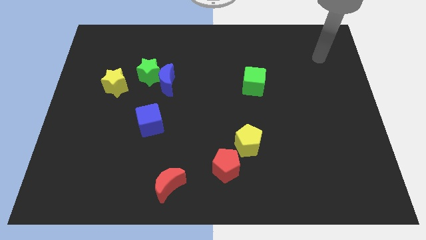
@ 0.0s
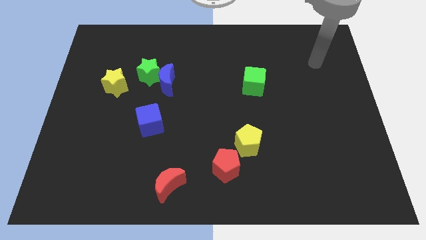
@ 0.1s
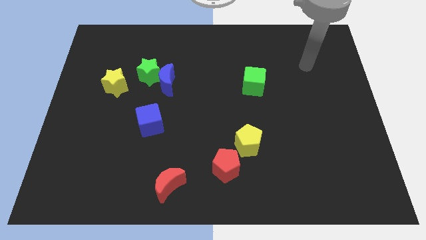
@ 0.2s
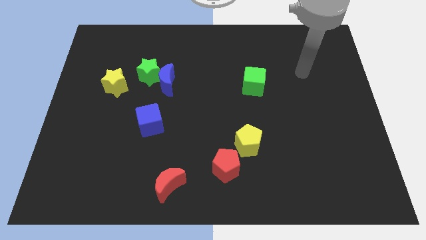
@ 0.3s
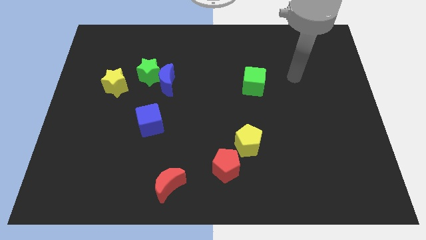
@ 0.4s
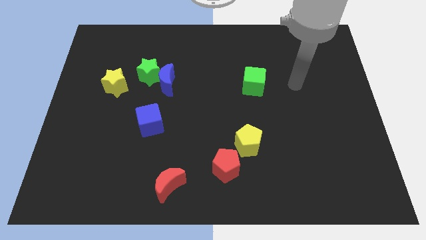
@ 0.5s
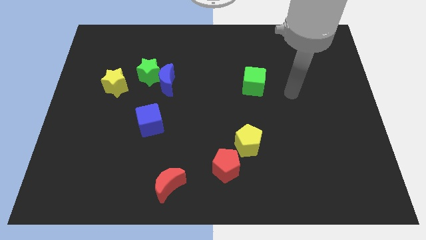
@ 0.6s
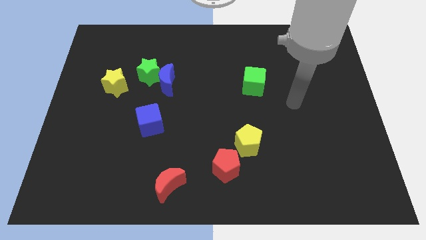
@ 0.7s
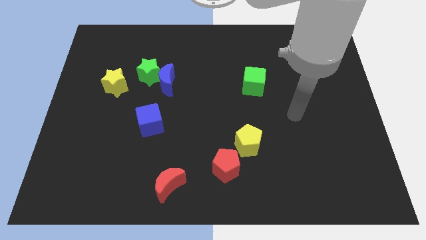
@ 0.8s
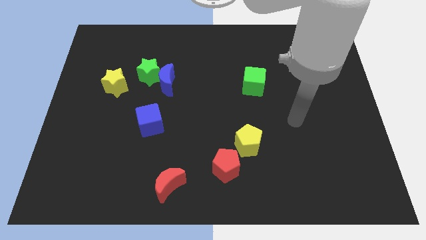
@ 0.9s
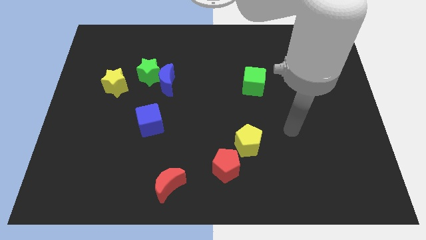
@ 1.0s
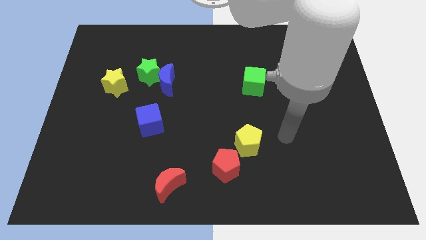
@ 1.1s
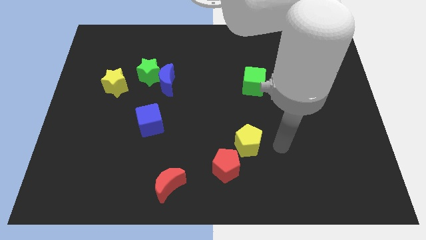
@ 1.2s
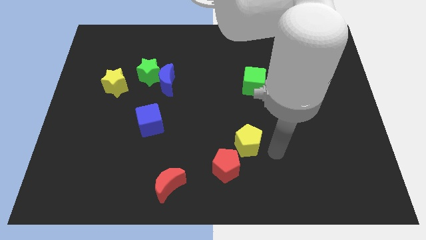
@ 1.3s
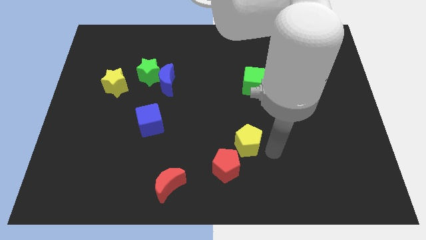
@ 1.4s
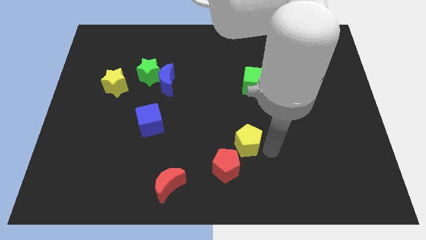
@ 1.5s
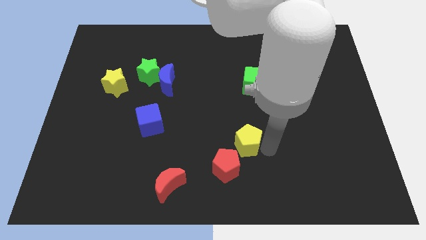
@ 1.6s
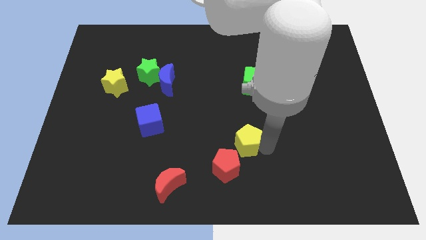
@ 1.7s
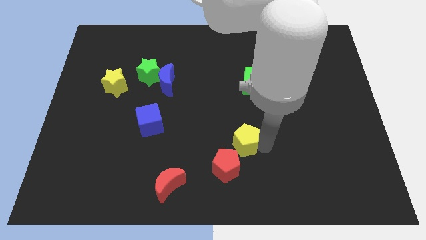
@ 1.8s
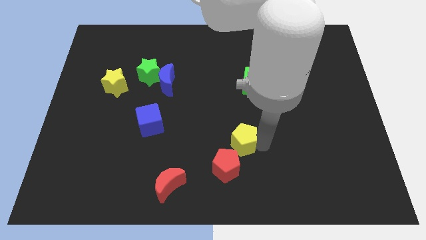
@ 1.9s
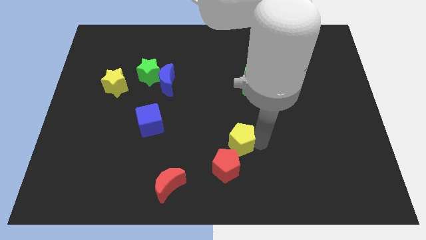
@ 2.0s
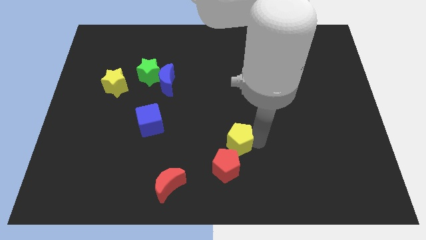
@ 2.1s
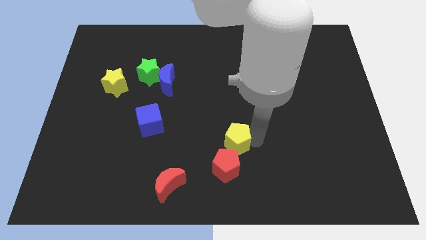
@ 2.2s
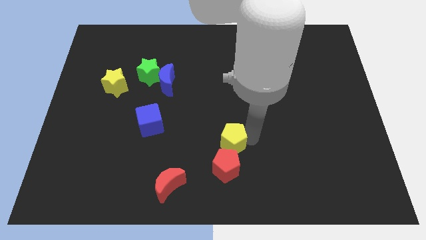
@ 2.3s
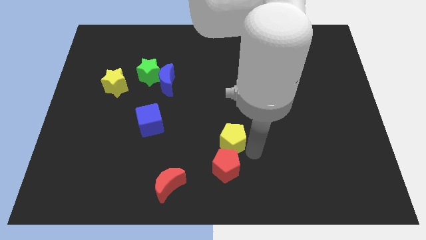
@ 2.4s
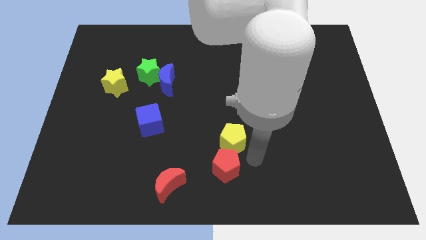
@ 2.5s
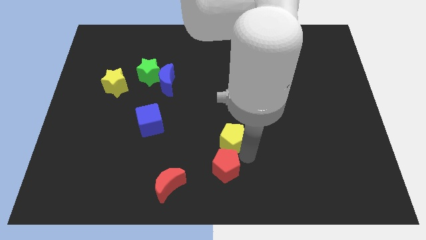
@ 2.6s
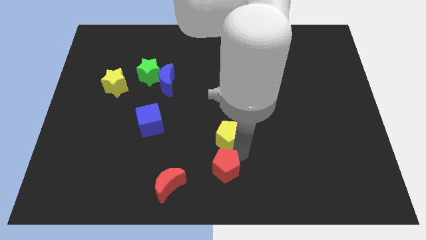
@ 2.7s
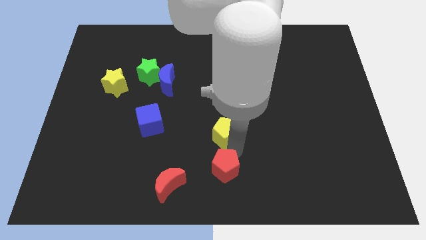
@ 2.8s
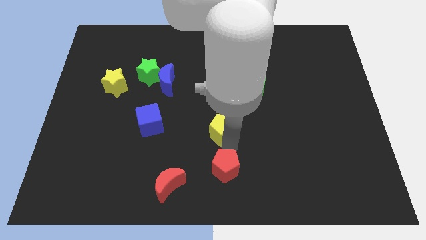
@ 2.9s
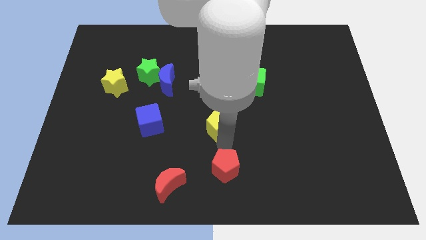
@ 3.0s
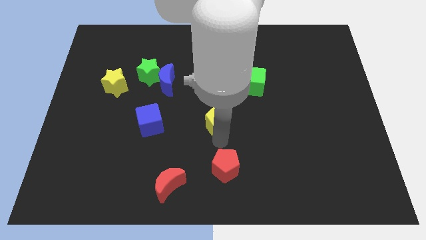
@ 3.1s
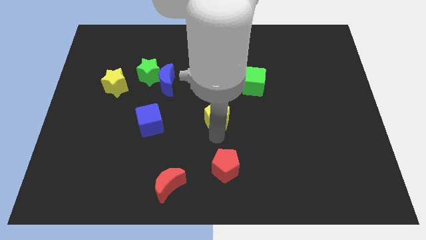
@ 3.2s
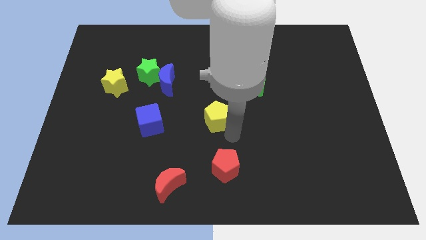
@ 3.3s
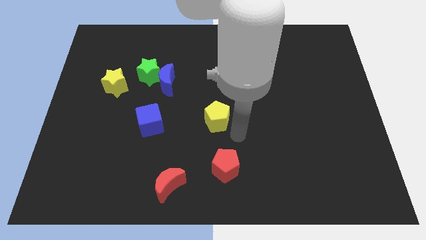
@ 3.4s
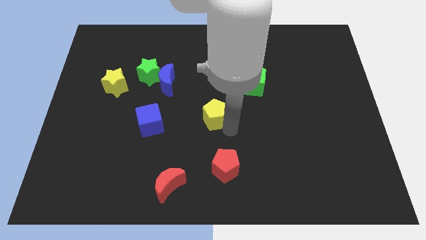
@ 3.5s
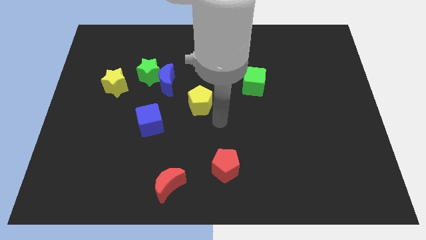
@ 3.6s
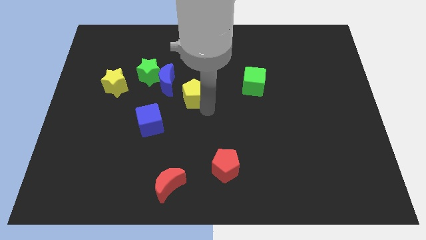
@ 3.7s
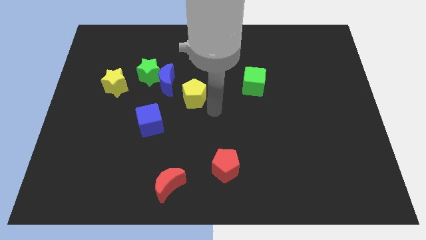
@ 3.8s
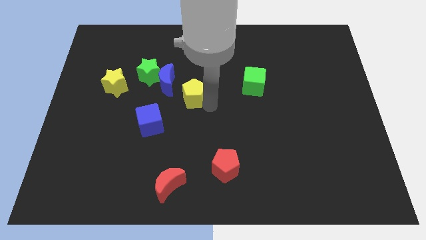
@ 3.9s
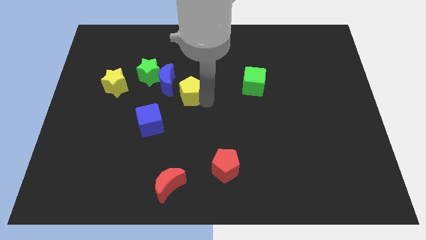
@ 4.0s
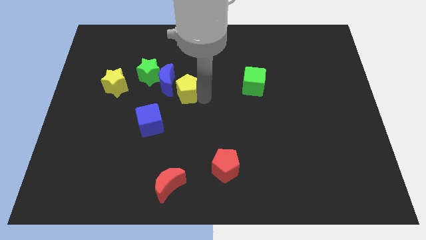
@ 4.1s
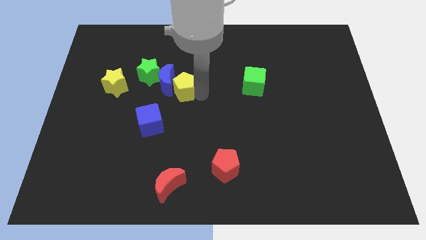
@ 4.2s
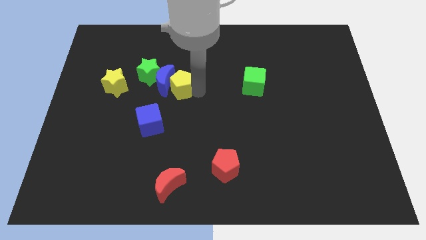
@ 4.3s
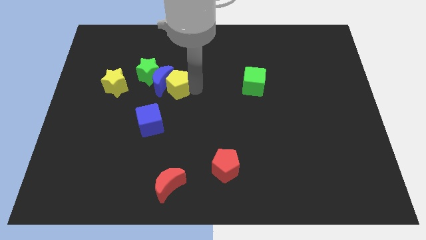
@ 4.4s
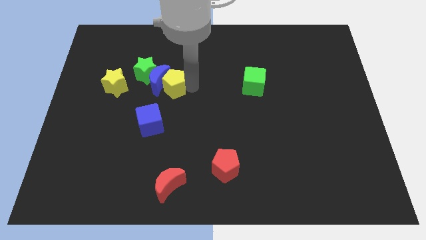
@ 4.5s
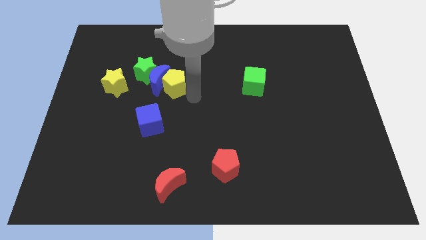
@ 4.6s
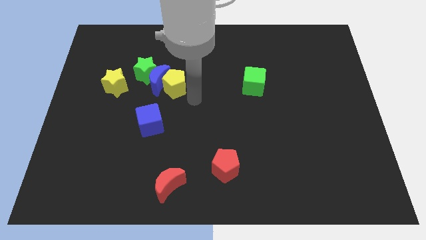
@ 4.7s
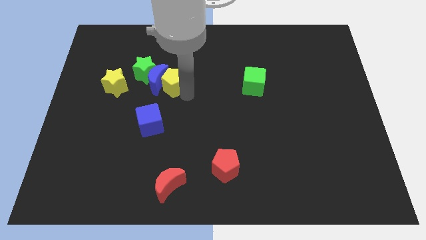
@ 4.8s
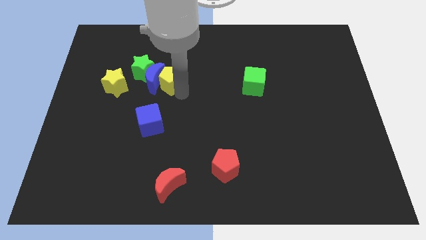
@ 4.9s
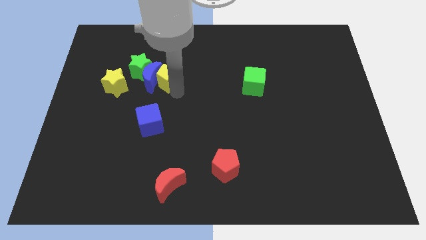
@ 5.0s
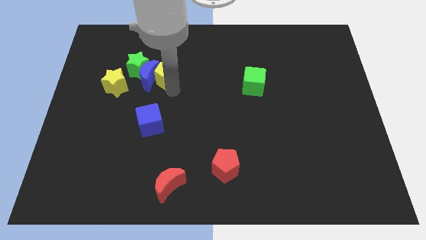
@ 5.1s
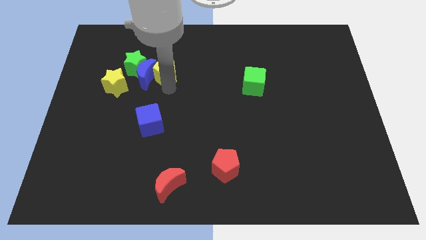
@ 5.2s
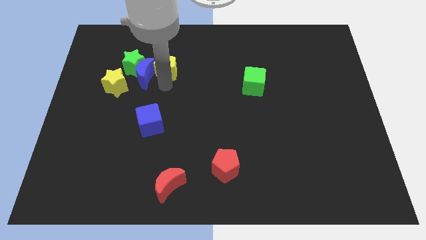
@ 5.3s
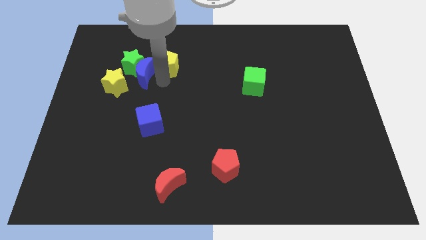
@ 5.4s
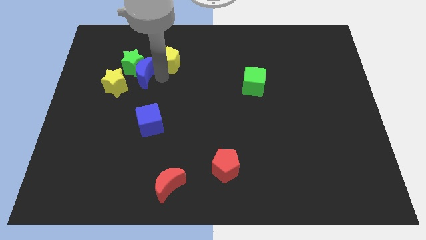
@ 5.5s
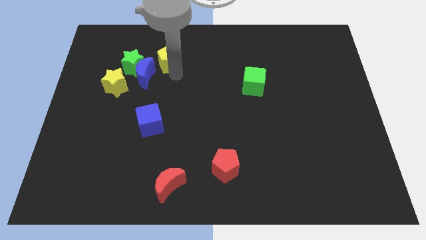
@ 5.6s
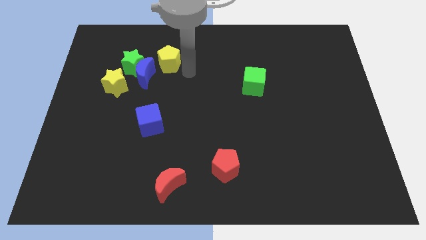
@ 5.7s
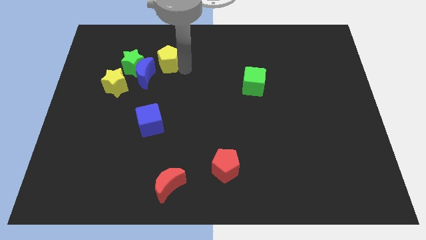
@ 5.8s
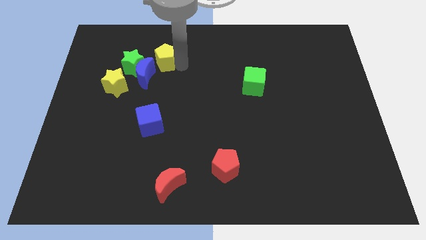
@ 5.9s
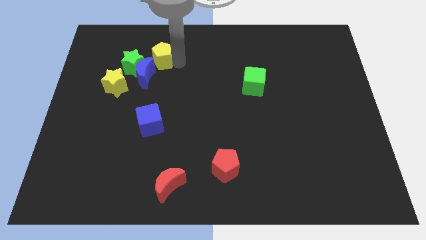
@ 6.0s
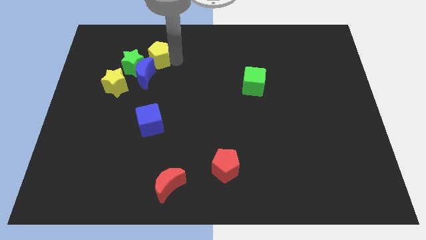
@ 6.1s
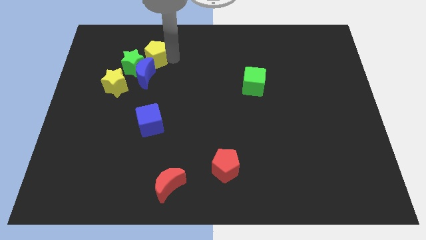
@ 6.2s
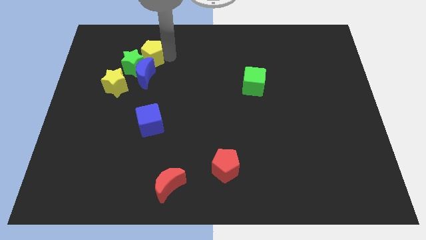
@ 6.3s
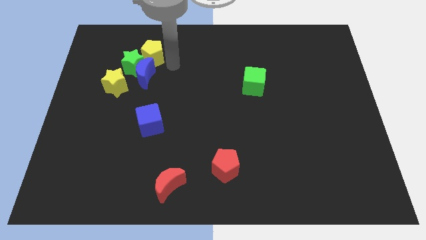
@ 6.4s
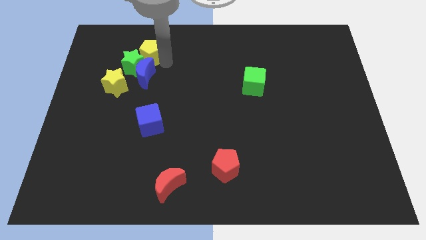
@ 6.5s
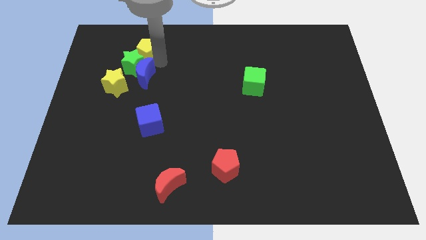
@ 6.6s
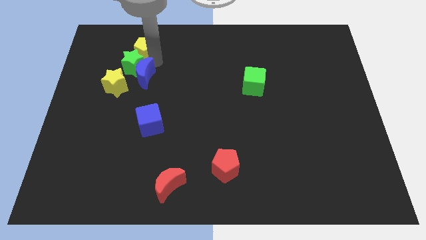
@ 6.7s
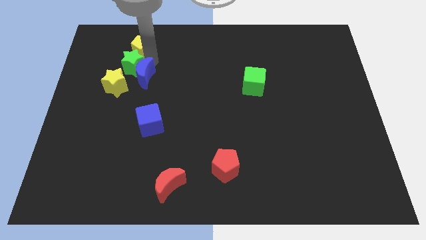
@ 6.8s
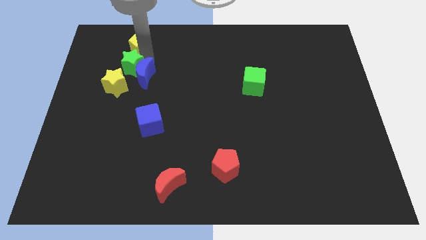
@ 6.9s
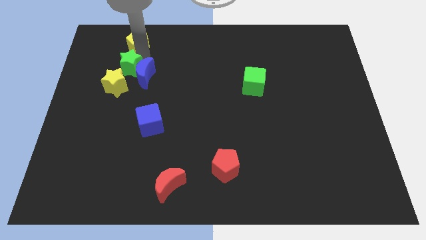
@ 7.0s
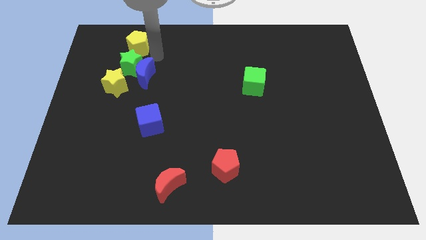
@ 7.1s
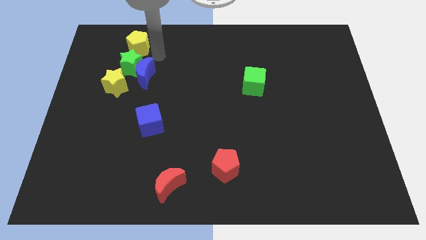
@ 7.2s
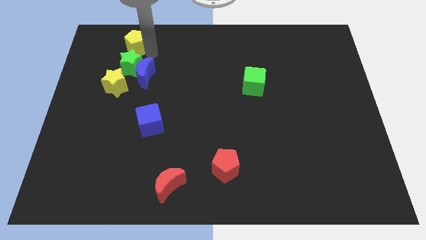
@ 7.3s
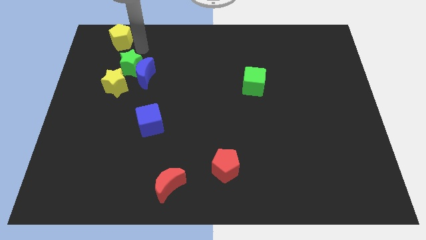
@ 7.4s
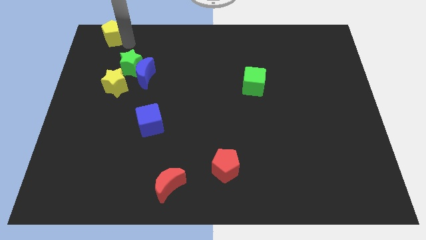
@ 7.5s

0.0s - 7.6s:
put the yellow pentagon to the upper left corner
